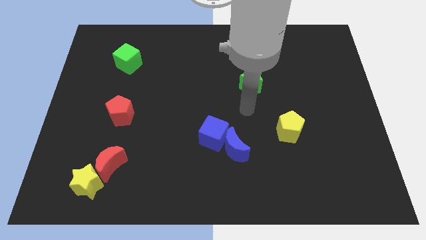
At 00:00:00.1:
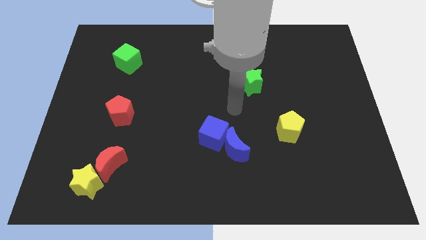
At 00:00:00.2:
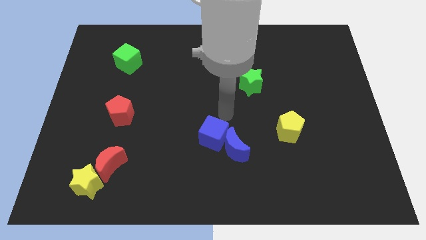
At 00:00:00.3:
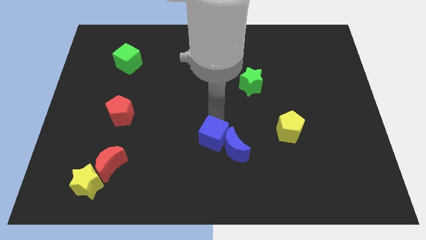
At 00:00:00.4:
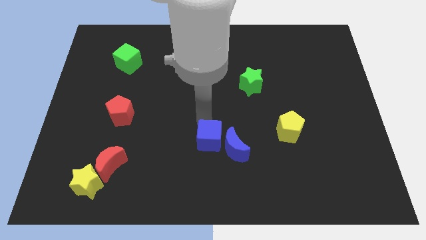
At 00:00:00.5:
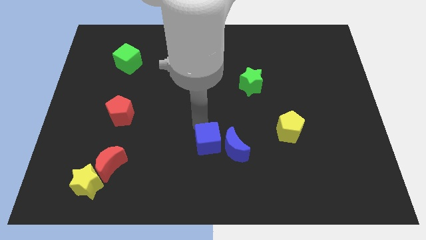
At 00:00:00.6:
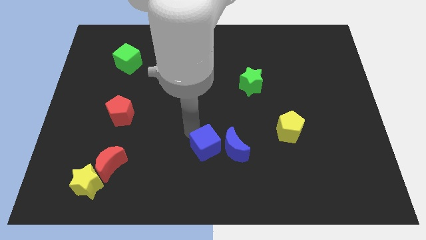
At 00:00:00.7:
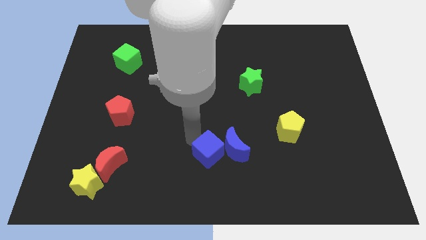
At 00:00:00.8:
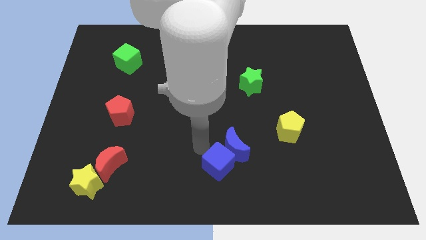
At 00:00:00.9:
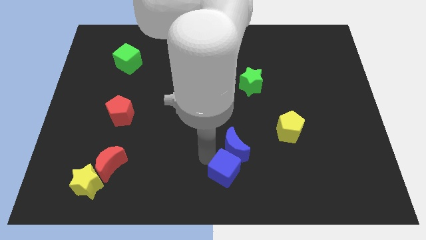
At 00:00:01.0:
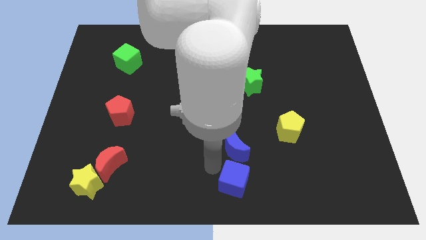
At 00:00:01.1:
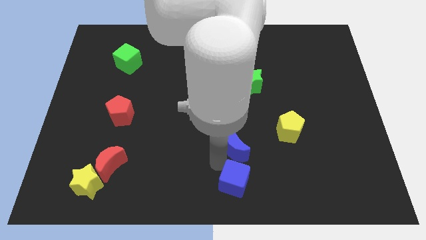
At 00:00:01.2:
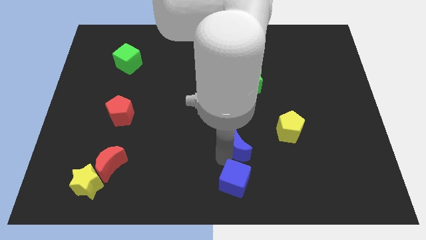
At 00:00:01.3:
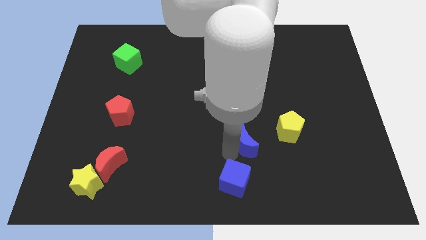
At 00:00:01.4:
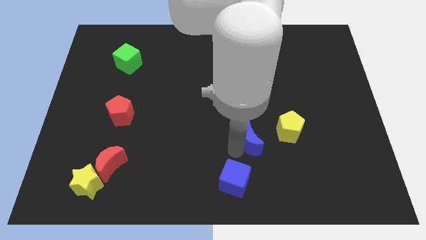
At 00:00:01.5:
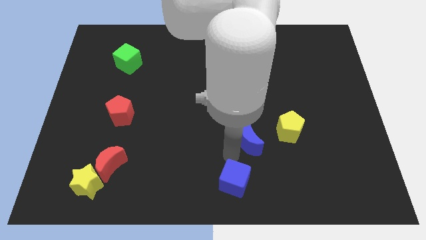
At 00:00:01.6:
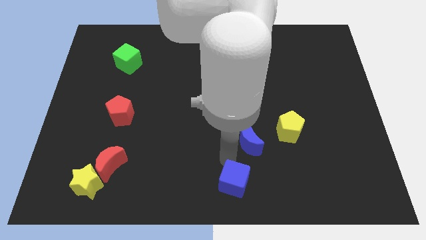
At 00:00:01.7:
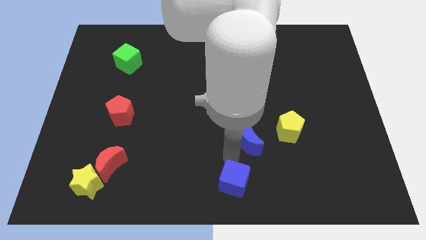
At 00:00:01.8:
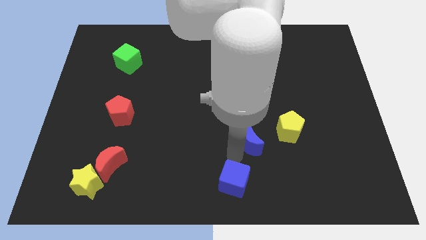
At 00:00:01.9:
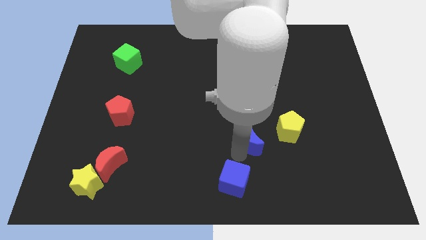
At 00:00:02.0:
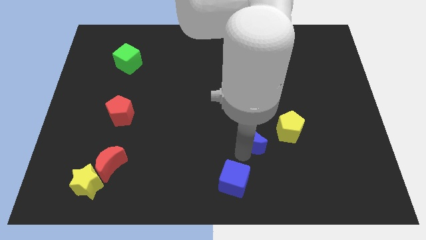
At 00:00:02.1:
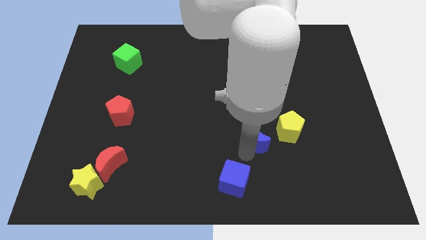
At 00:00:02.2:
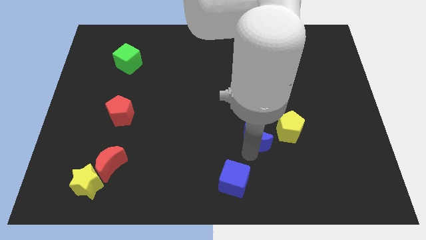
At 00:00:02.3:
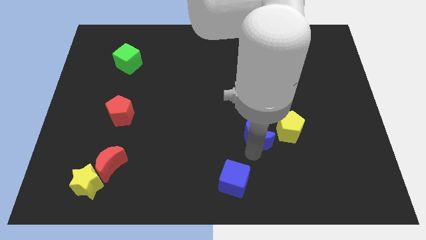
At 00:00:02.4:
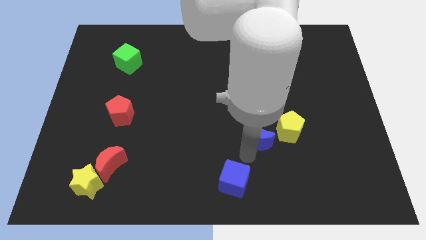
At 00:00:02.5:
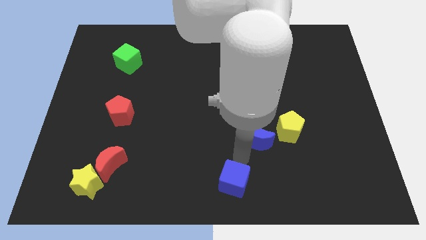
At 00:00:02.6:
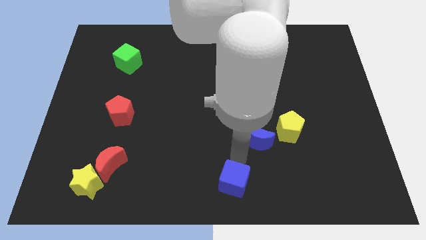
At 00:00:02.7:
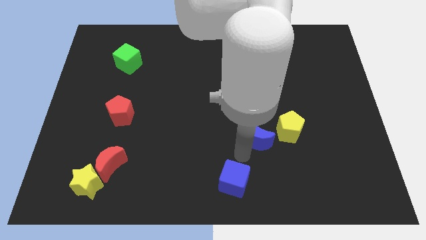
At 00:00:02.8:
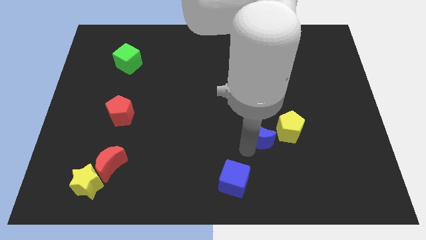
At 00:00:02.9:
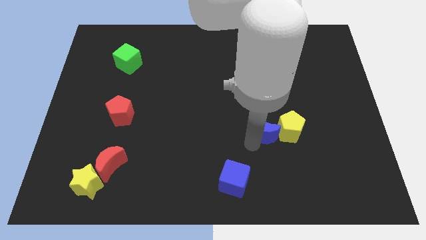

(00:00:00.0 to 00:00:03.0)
move the blue moon up and then right a bit

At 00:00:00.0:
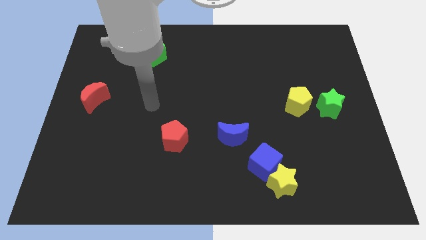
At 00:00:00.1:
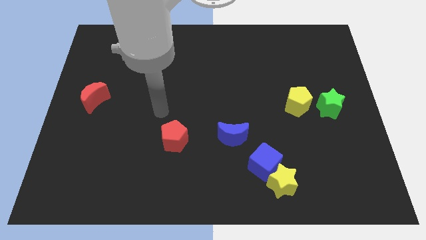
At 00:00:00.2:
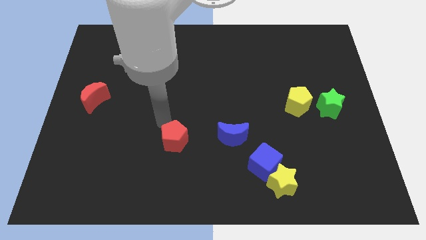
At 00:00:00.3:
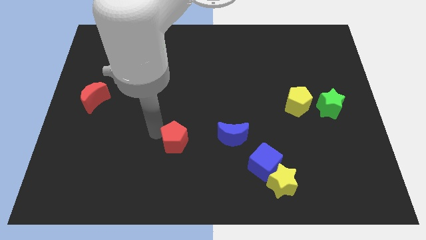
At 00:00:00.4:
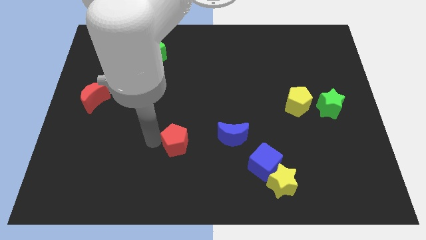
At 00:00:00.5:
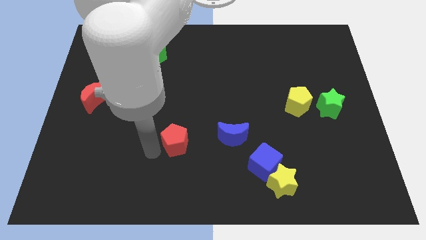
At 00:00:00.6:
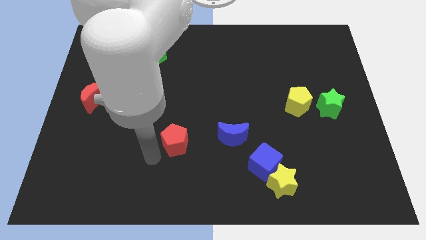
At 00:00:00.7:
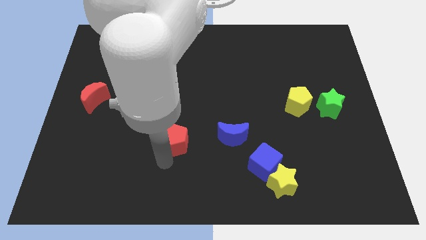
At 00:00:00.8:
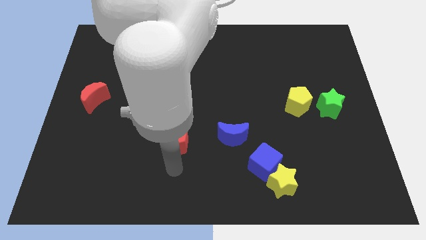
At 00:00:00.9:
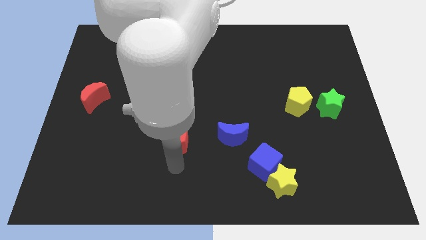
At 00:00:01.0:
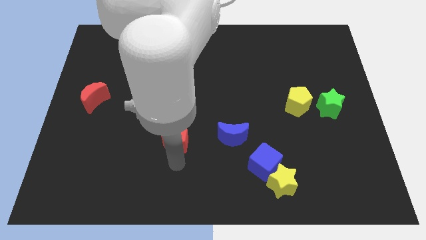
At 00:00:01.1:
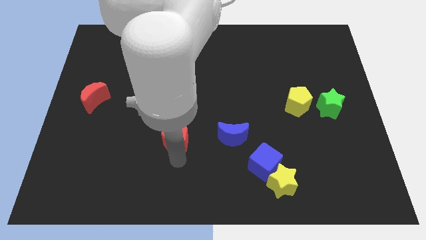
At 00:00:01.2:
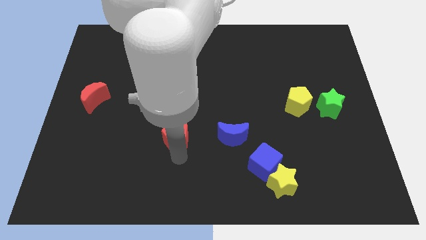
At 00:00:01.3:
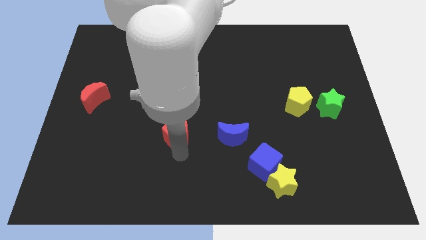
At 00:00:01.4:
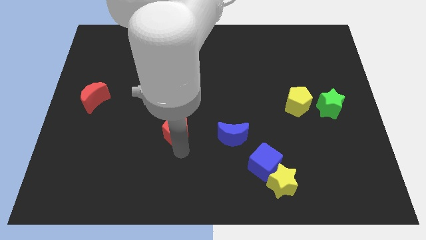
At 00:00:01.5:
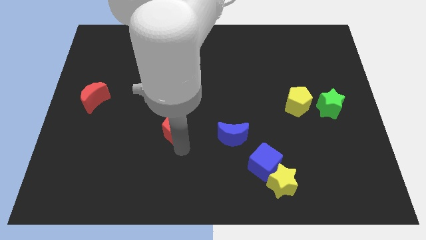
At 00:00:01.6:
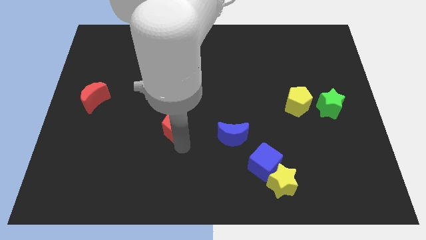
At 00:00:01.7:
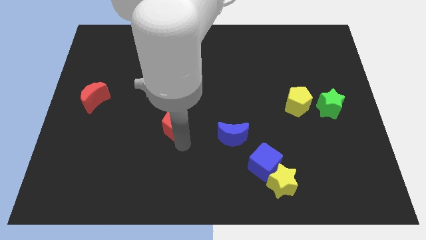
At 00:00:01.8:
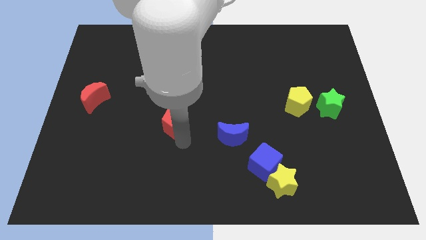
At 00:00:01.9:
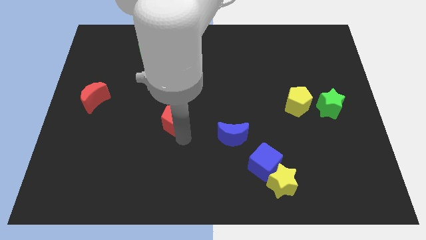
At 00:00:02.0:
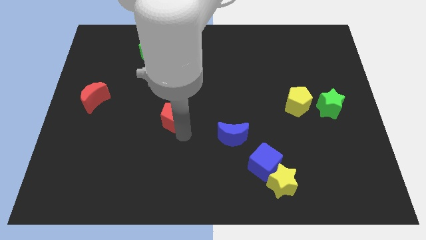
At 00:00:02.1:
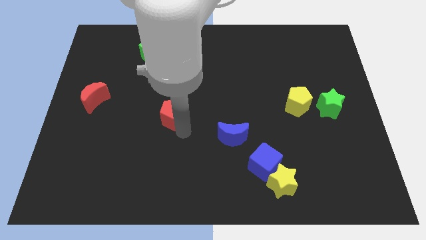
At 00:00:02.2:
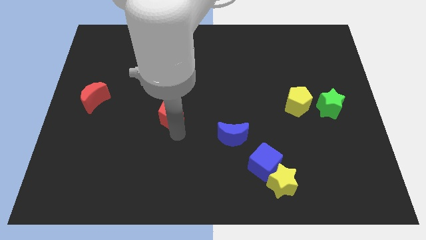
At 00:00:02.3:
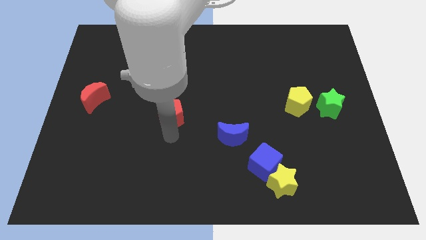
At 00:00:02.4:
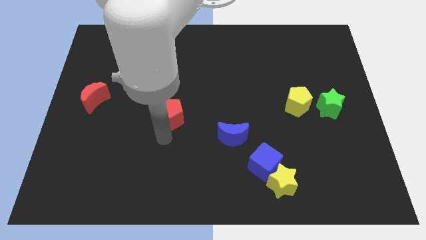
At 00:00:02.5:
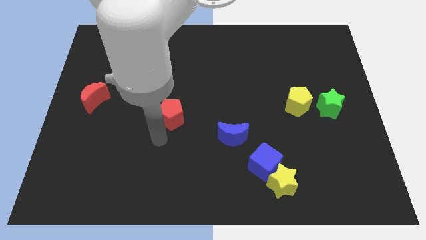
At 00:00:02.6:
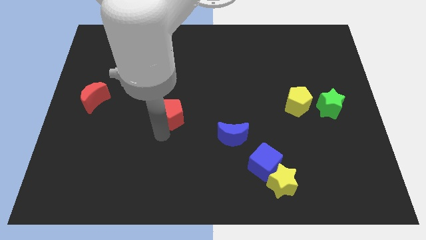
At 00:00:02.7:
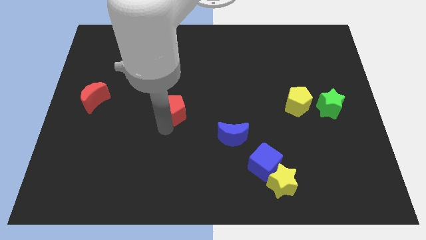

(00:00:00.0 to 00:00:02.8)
move the red pentagon a little upwards

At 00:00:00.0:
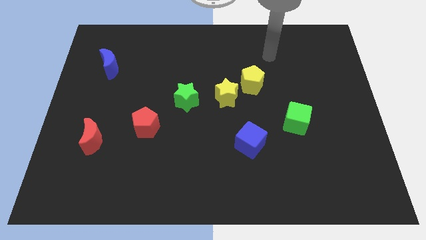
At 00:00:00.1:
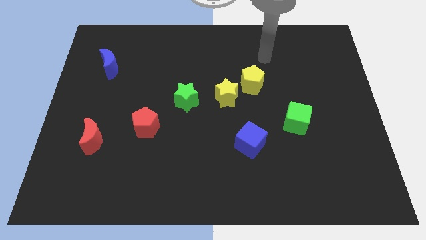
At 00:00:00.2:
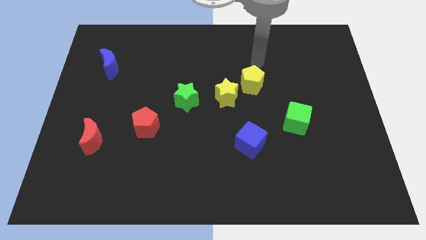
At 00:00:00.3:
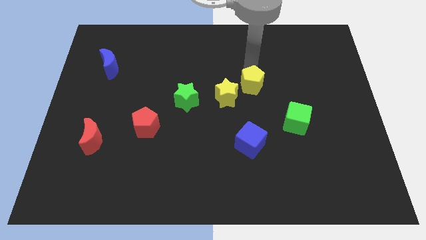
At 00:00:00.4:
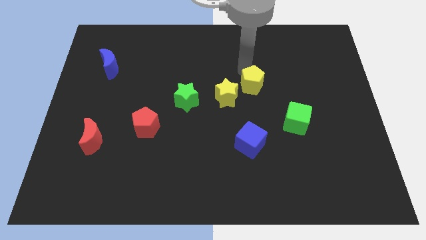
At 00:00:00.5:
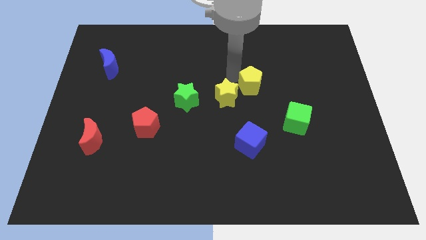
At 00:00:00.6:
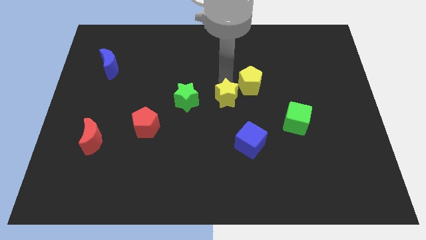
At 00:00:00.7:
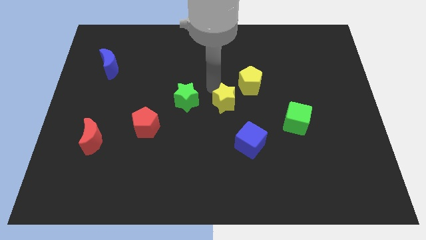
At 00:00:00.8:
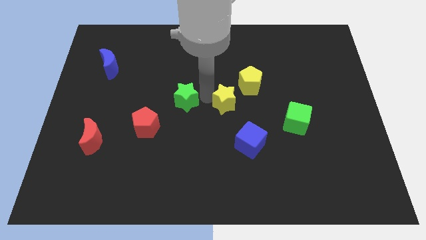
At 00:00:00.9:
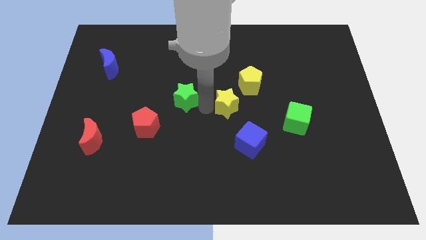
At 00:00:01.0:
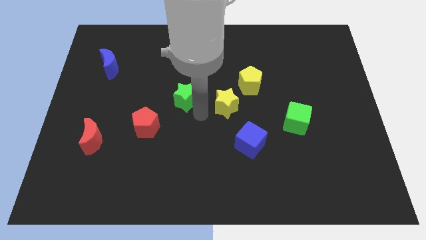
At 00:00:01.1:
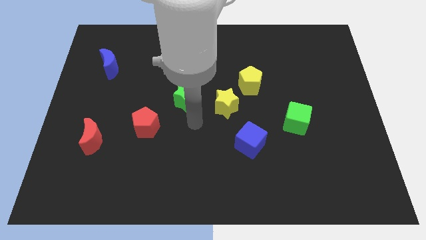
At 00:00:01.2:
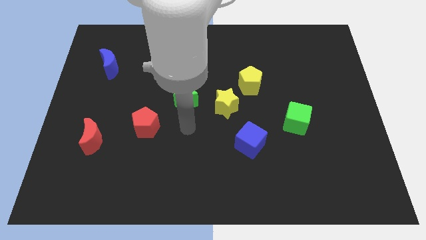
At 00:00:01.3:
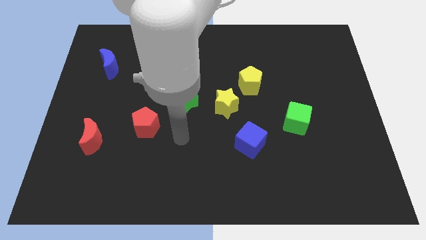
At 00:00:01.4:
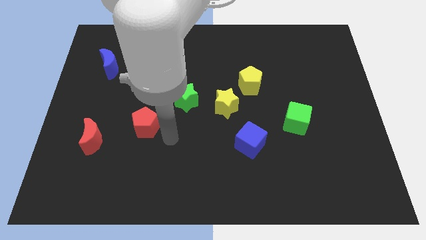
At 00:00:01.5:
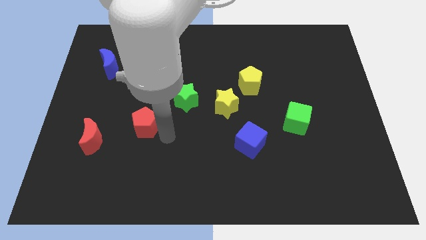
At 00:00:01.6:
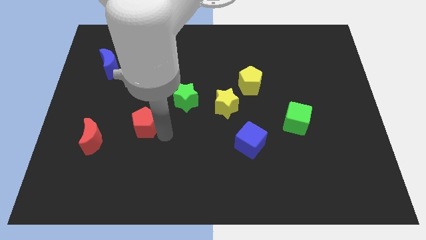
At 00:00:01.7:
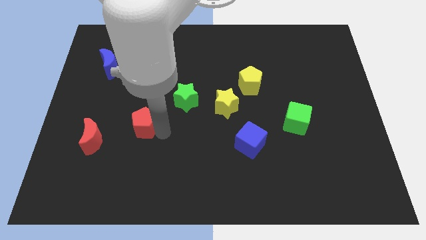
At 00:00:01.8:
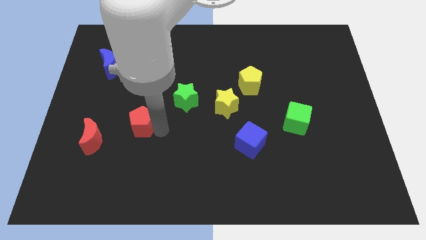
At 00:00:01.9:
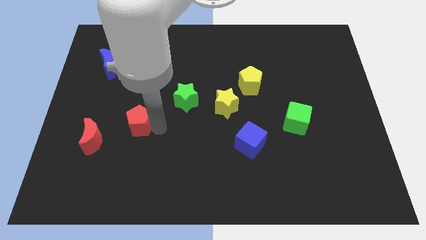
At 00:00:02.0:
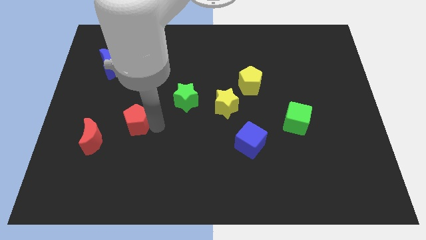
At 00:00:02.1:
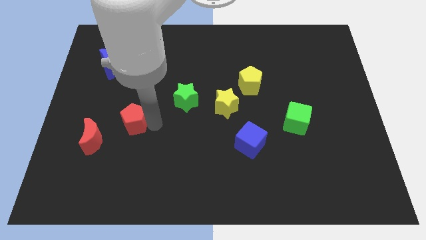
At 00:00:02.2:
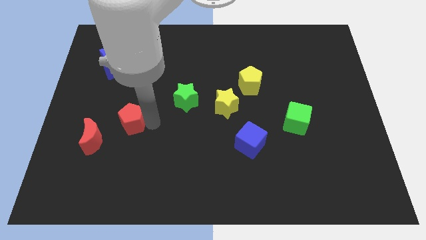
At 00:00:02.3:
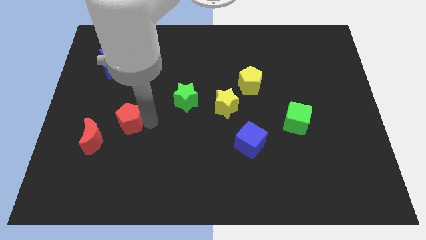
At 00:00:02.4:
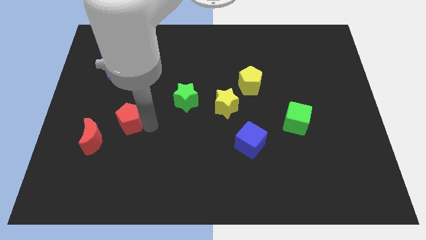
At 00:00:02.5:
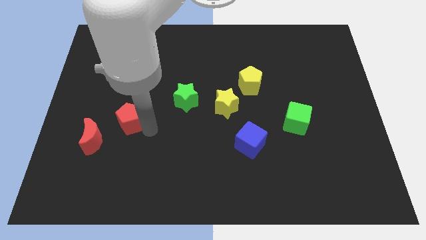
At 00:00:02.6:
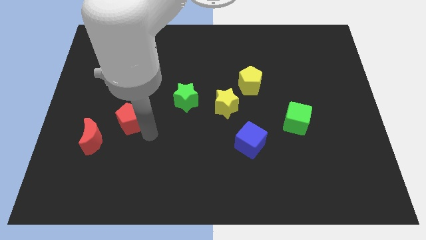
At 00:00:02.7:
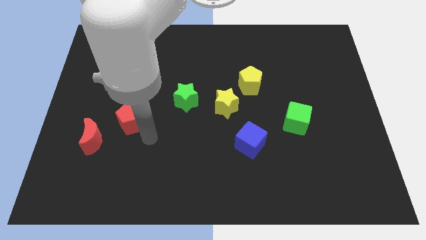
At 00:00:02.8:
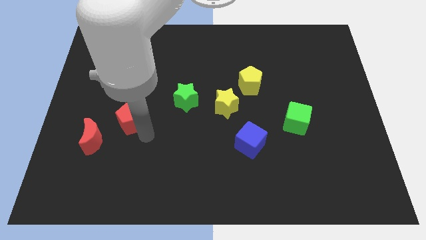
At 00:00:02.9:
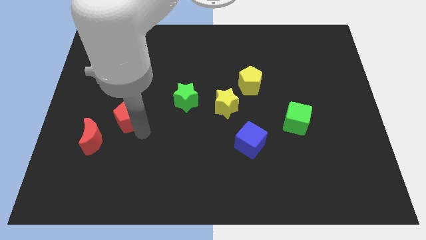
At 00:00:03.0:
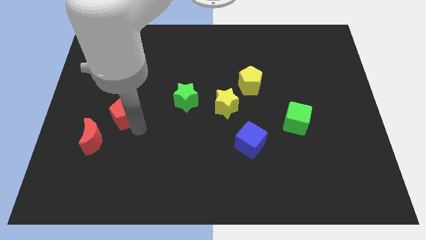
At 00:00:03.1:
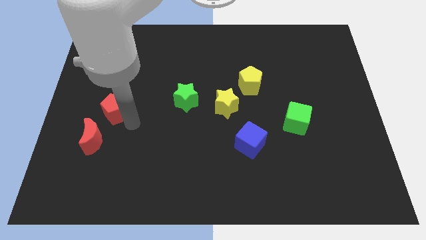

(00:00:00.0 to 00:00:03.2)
slide the red pentagon up and then left slightly
